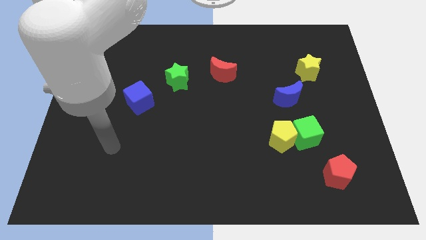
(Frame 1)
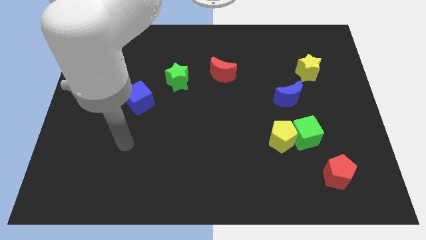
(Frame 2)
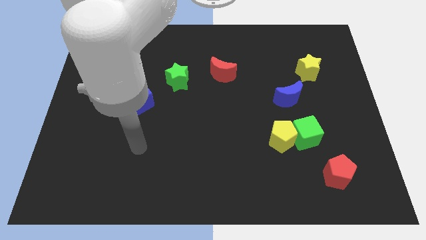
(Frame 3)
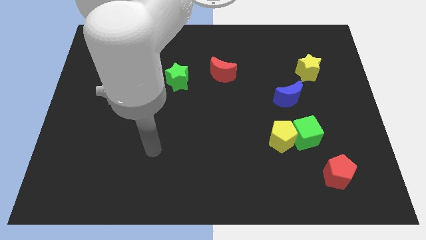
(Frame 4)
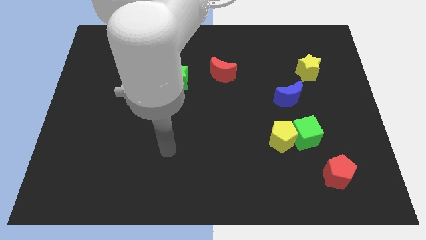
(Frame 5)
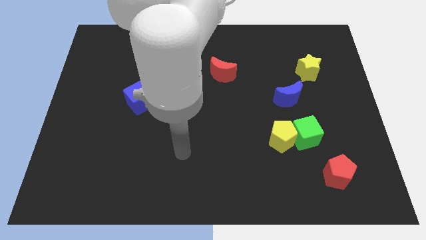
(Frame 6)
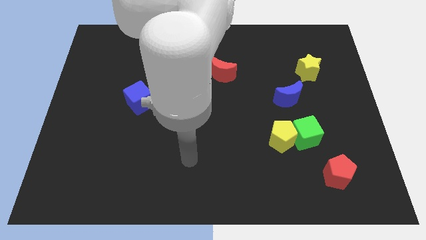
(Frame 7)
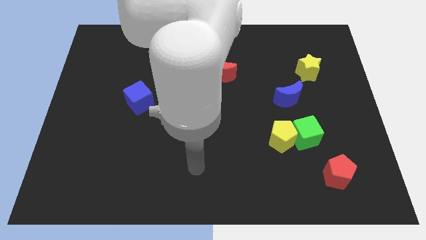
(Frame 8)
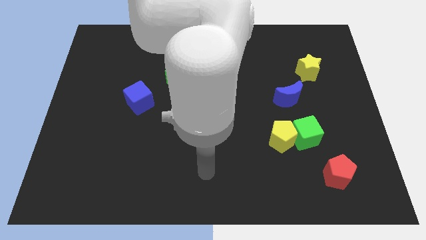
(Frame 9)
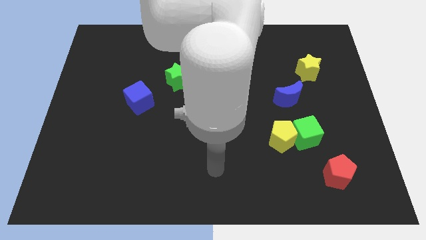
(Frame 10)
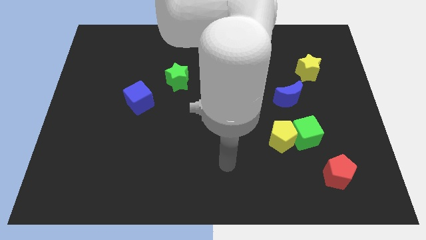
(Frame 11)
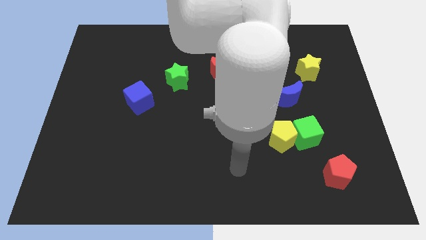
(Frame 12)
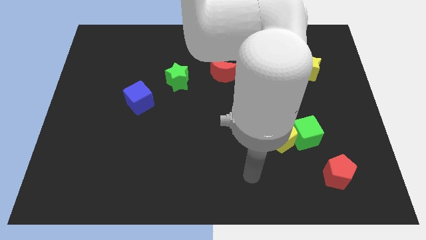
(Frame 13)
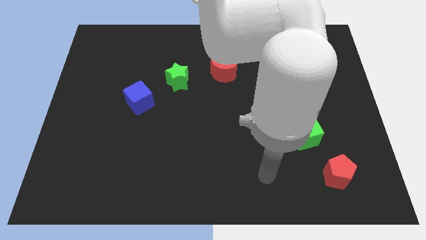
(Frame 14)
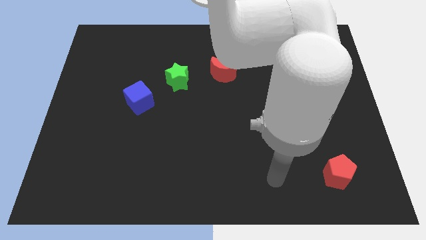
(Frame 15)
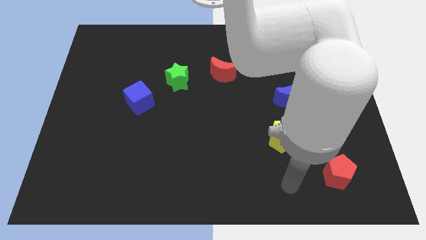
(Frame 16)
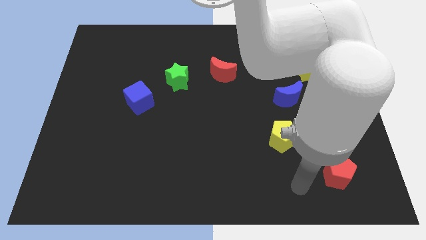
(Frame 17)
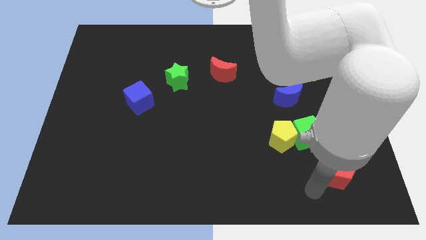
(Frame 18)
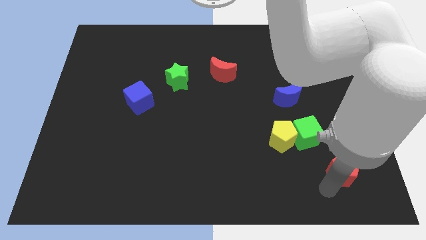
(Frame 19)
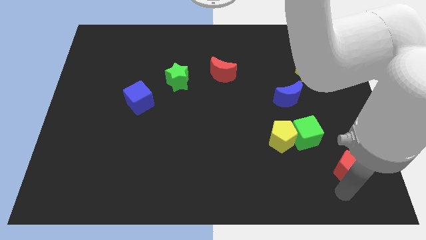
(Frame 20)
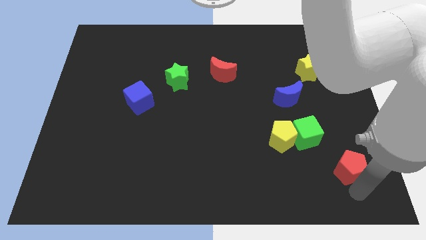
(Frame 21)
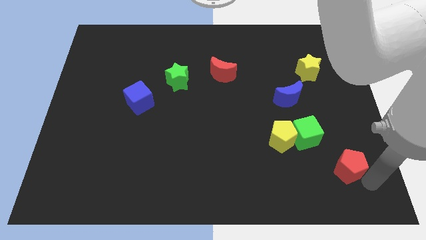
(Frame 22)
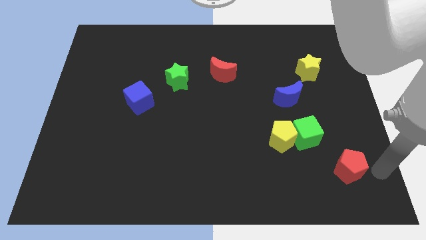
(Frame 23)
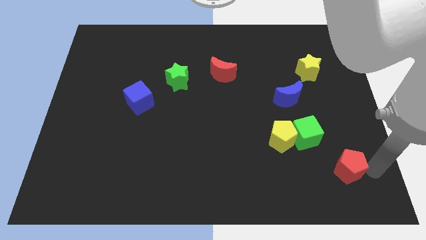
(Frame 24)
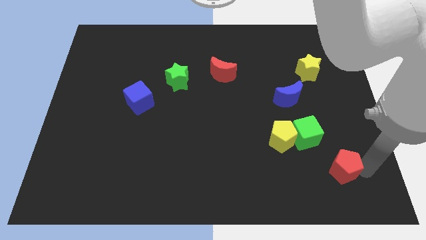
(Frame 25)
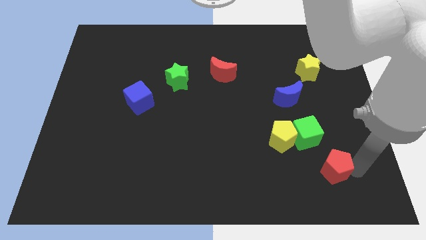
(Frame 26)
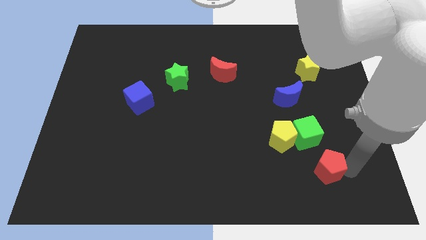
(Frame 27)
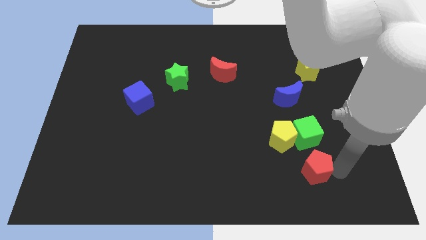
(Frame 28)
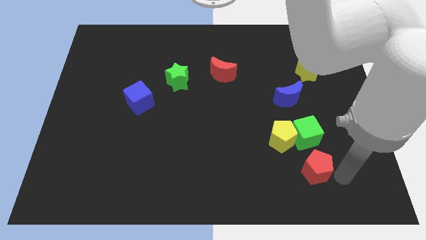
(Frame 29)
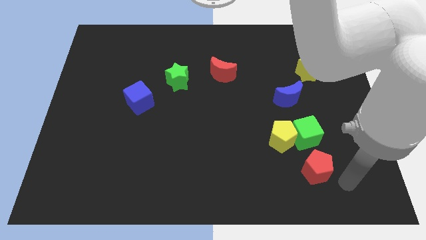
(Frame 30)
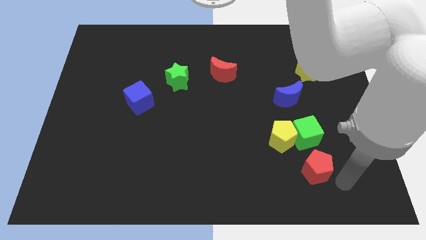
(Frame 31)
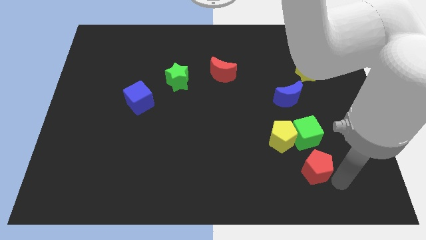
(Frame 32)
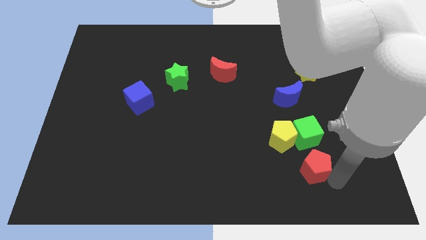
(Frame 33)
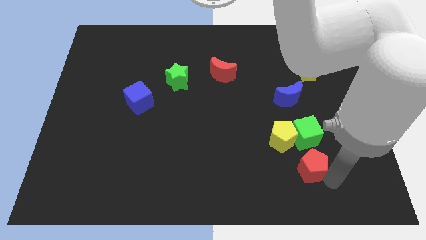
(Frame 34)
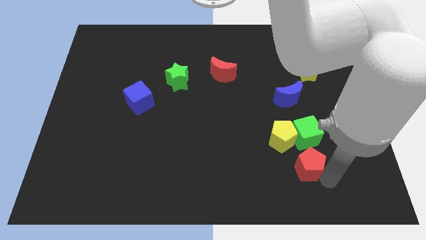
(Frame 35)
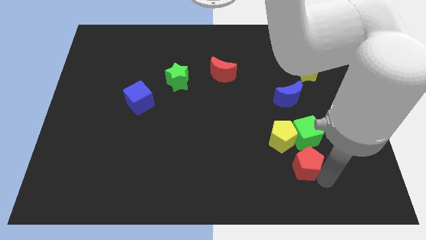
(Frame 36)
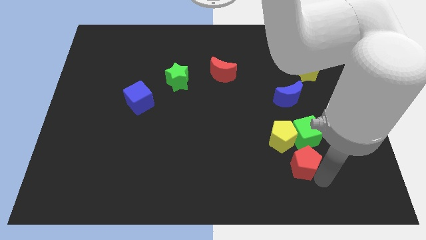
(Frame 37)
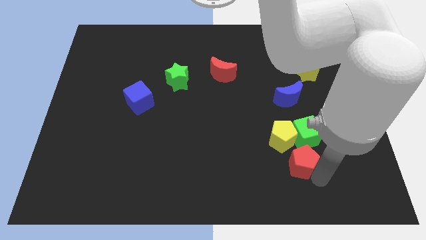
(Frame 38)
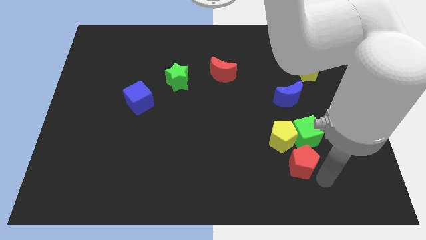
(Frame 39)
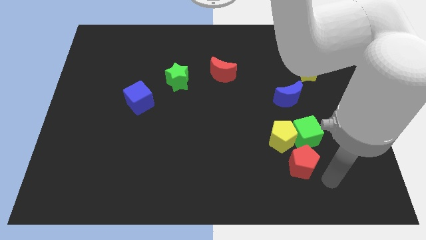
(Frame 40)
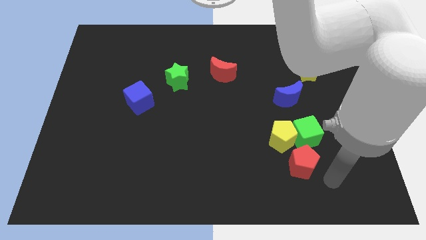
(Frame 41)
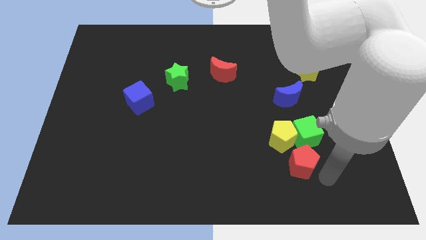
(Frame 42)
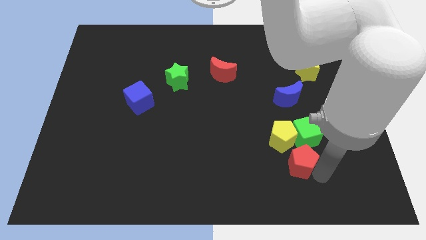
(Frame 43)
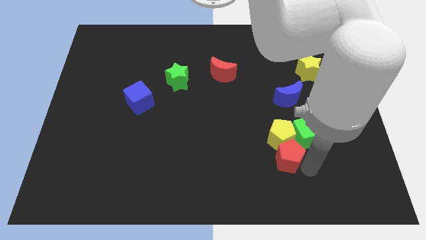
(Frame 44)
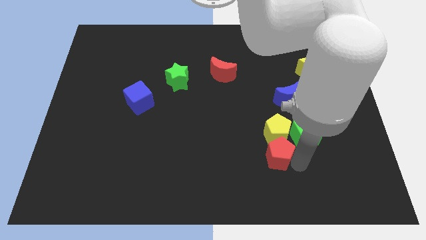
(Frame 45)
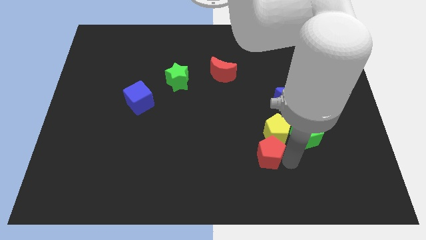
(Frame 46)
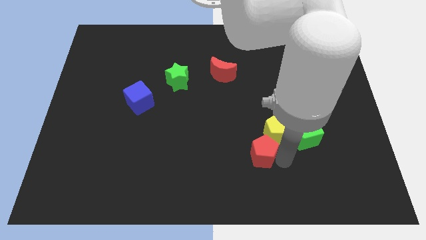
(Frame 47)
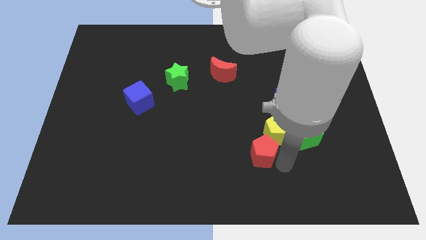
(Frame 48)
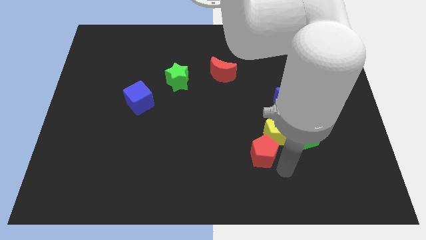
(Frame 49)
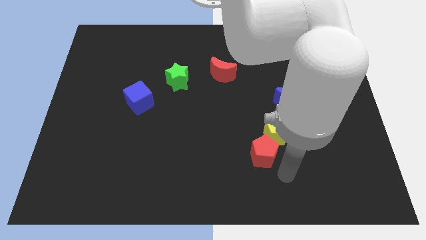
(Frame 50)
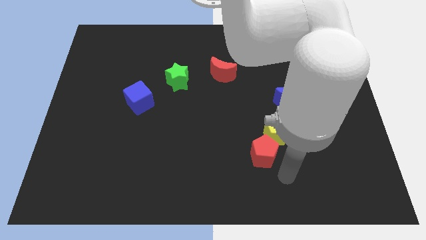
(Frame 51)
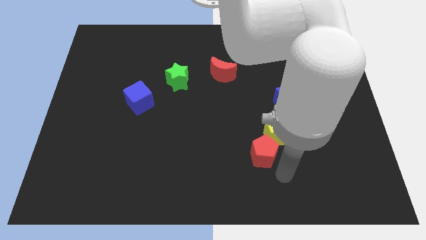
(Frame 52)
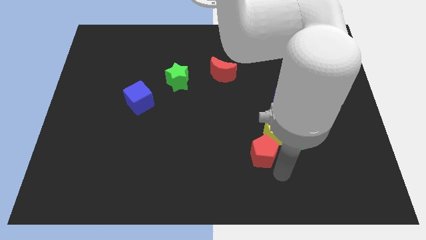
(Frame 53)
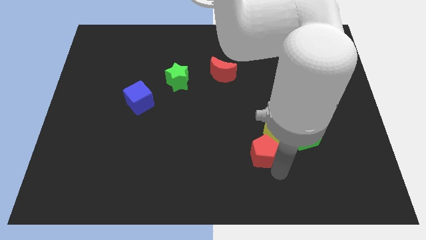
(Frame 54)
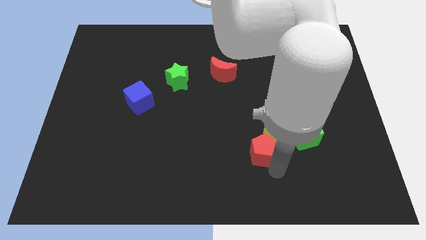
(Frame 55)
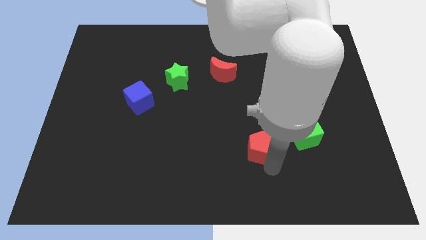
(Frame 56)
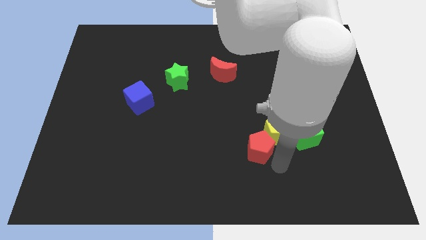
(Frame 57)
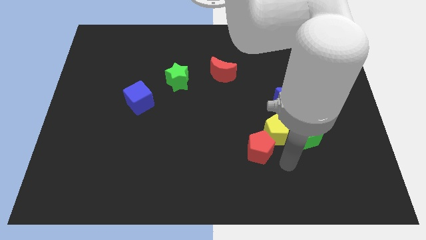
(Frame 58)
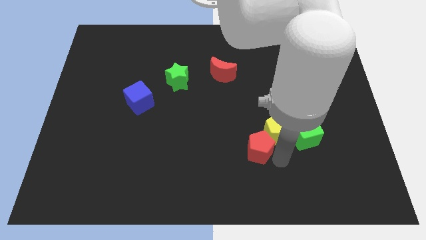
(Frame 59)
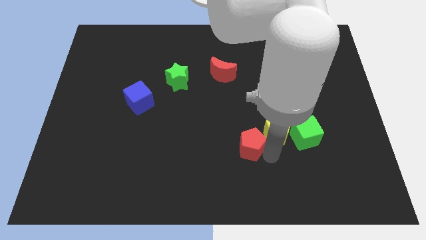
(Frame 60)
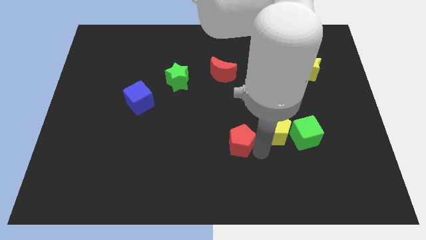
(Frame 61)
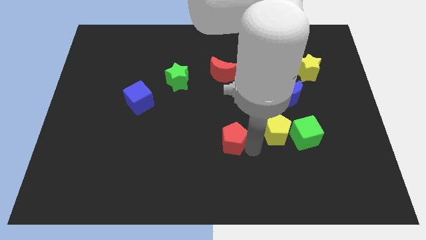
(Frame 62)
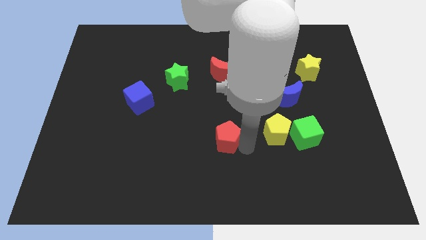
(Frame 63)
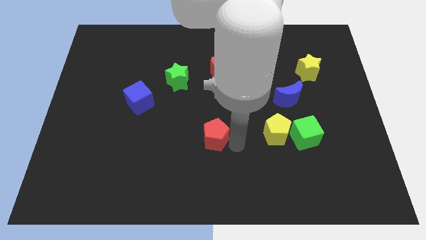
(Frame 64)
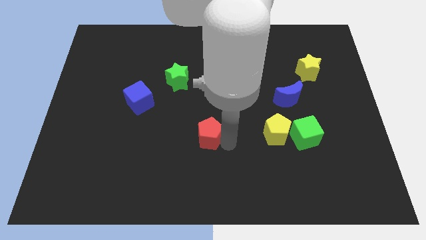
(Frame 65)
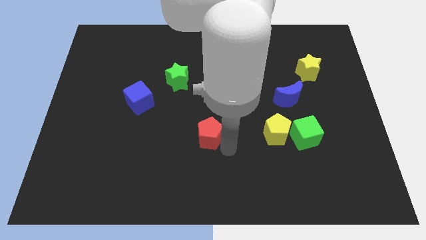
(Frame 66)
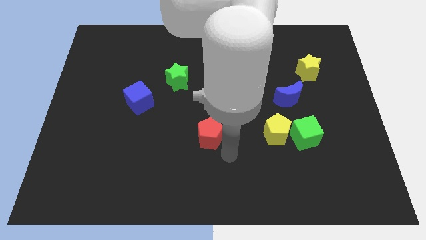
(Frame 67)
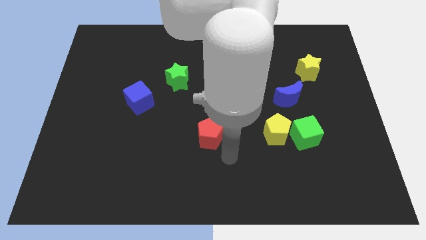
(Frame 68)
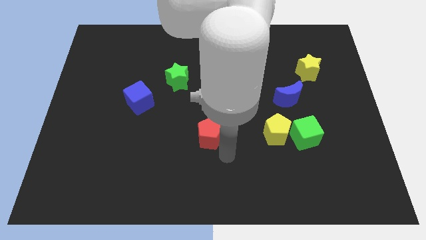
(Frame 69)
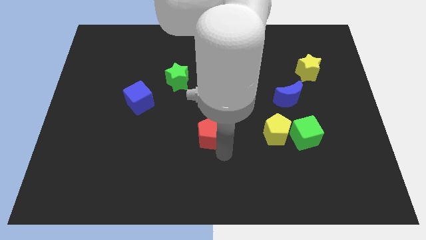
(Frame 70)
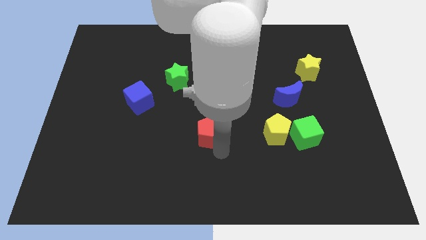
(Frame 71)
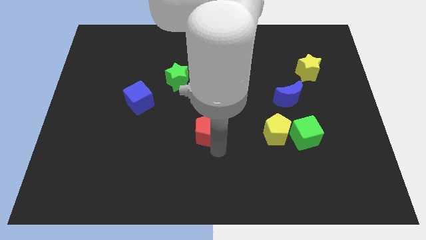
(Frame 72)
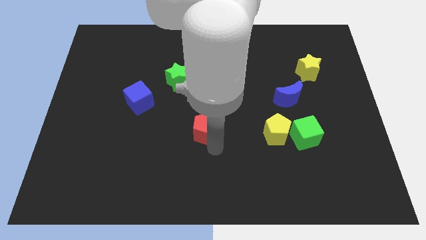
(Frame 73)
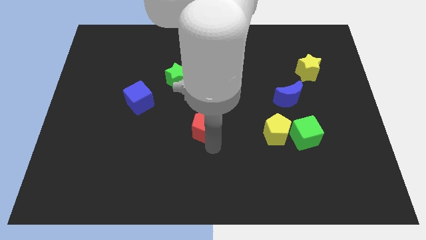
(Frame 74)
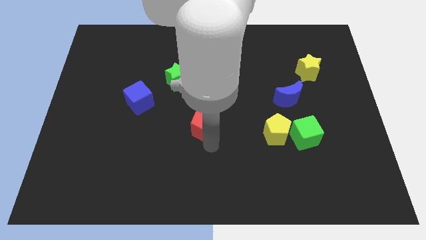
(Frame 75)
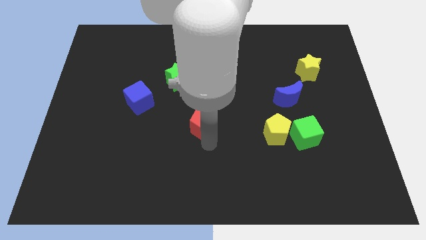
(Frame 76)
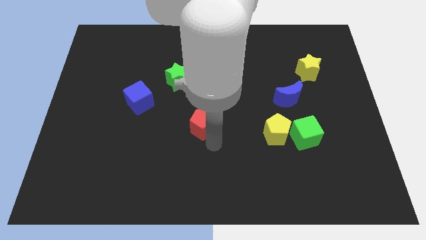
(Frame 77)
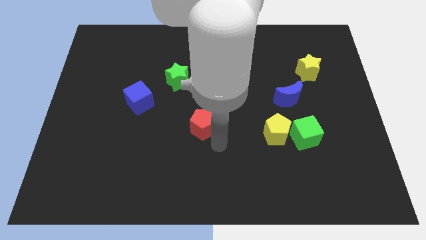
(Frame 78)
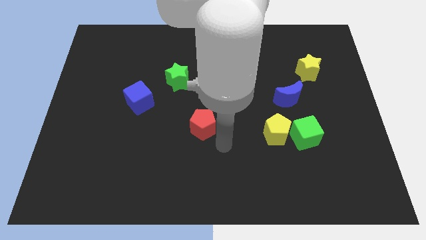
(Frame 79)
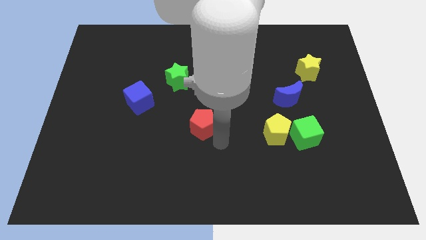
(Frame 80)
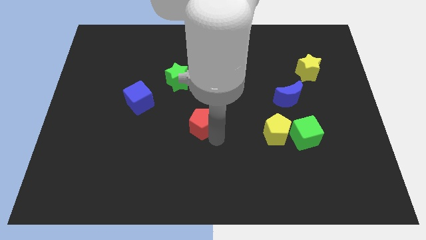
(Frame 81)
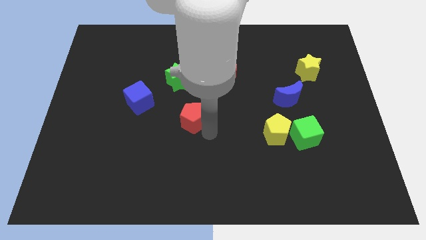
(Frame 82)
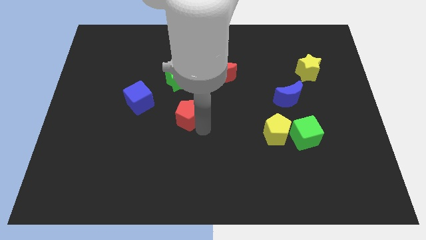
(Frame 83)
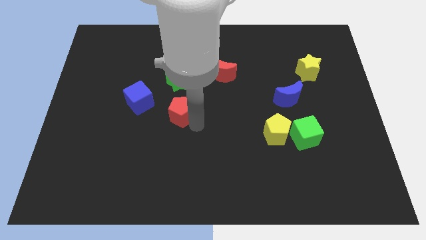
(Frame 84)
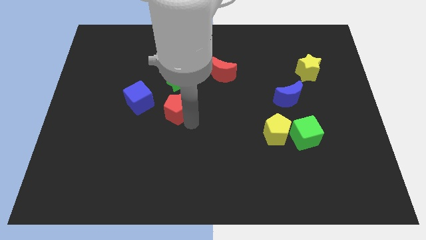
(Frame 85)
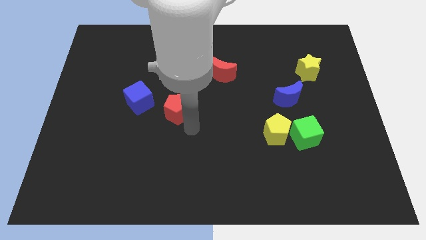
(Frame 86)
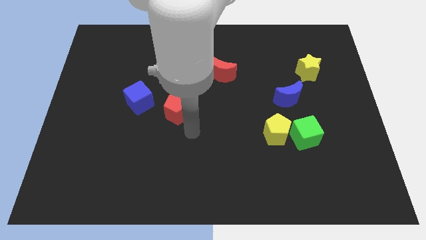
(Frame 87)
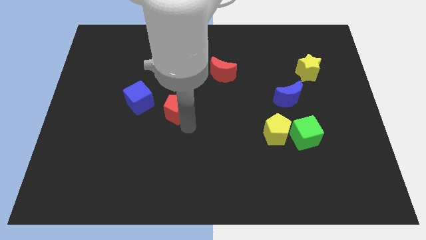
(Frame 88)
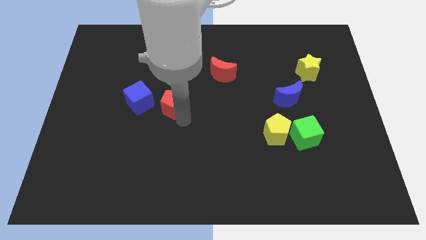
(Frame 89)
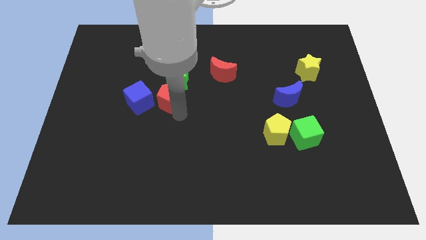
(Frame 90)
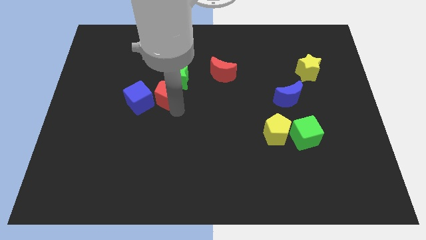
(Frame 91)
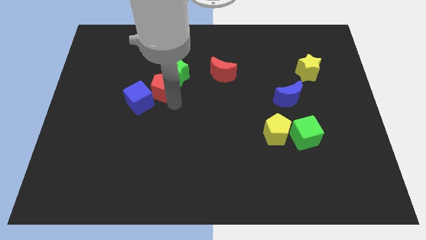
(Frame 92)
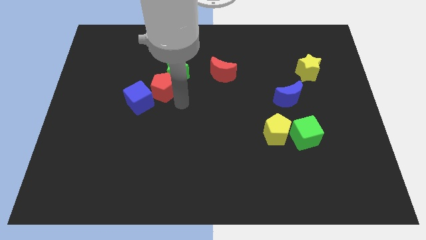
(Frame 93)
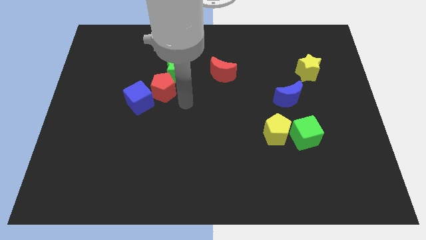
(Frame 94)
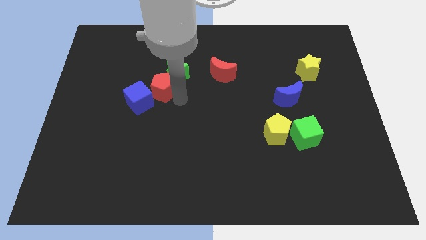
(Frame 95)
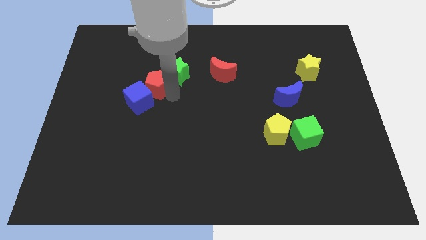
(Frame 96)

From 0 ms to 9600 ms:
slide the red pentagon just left of the green star
